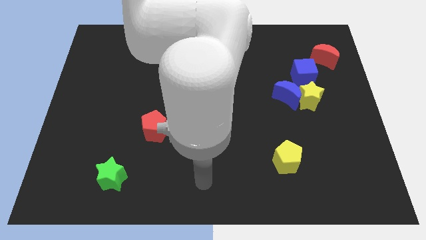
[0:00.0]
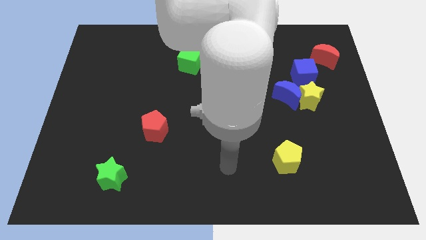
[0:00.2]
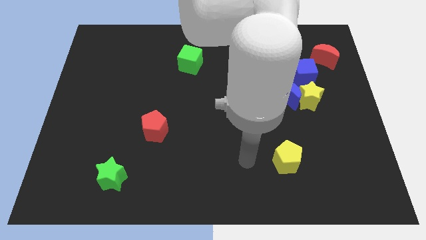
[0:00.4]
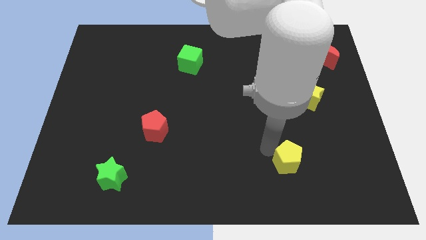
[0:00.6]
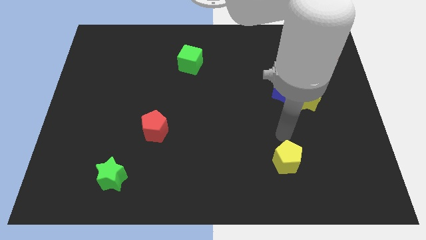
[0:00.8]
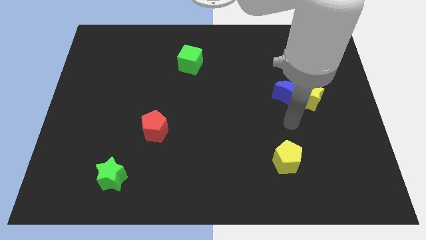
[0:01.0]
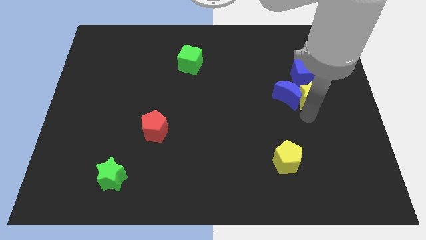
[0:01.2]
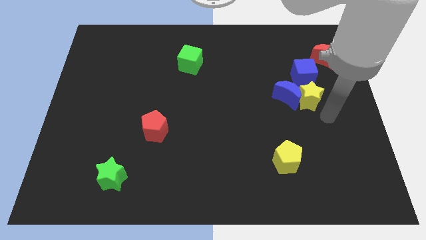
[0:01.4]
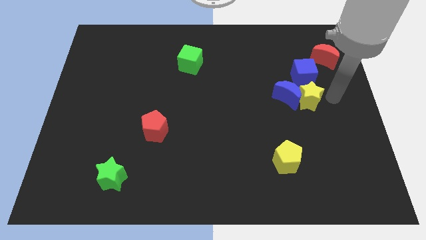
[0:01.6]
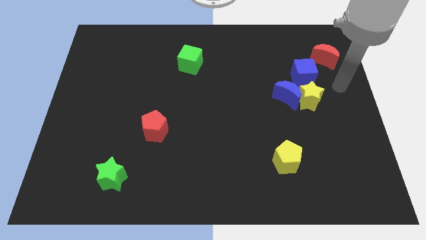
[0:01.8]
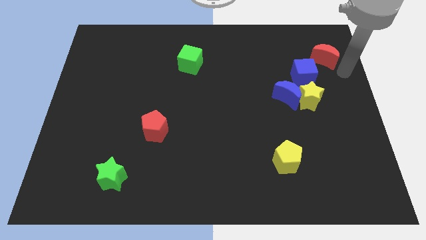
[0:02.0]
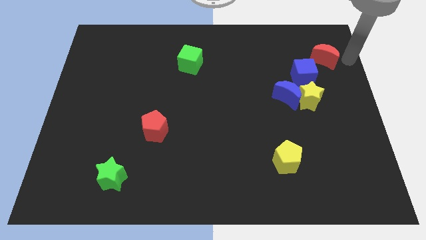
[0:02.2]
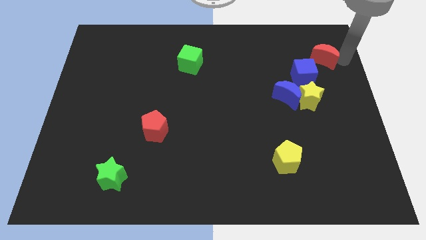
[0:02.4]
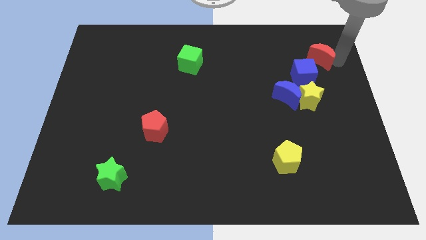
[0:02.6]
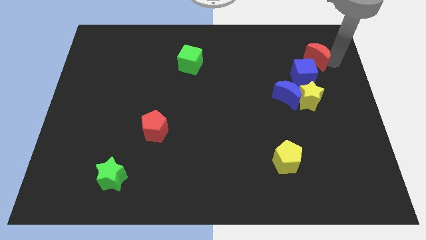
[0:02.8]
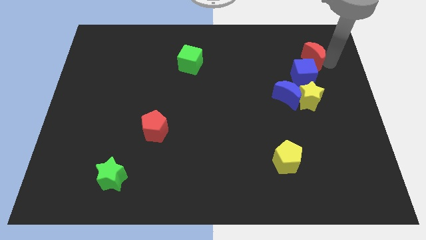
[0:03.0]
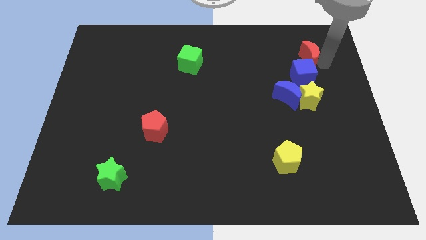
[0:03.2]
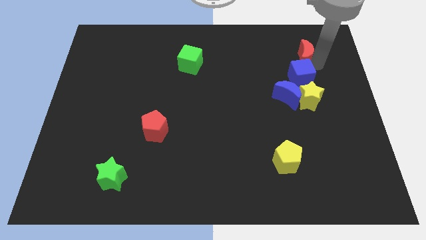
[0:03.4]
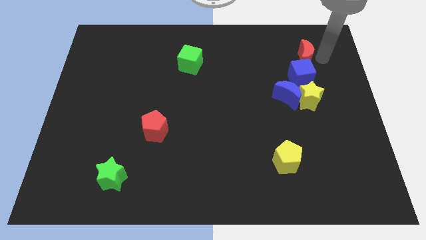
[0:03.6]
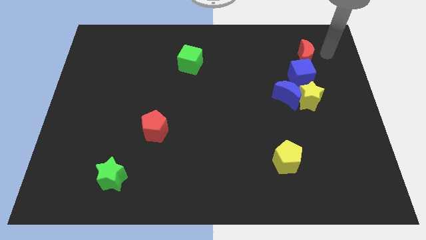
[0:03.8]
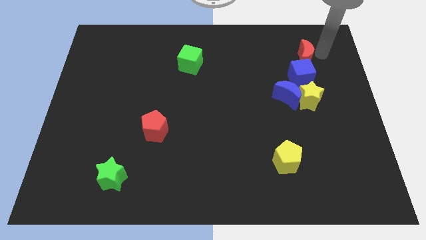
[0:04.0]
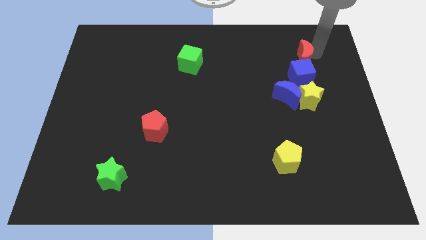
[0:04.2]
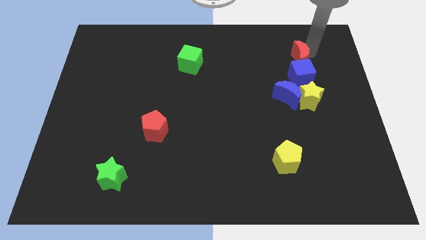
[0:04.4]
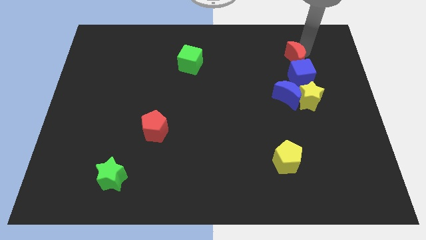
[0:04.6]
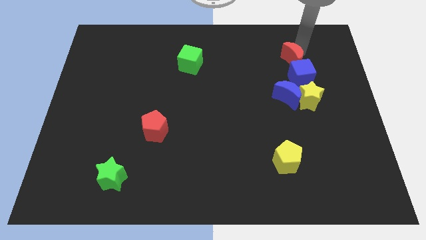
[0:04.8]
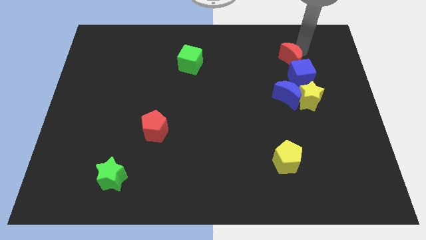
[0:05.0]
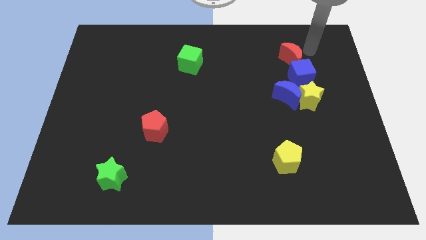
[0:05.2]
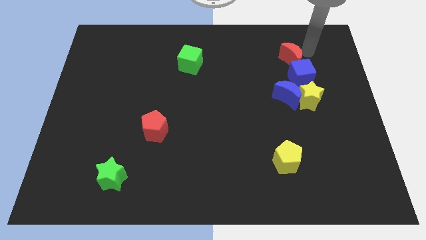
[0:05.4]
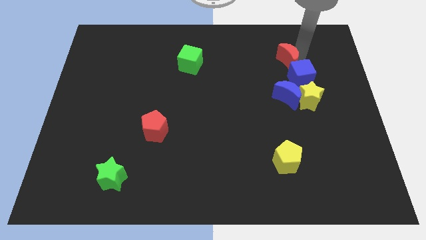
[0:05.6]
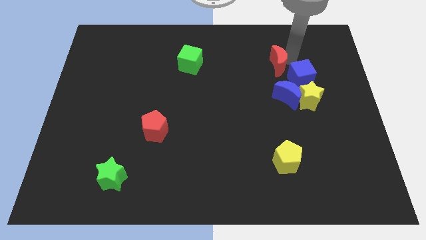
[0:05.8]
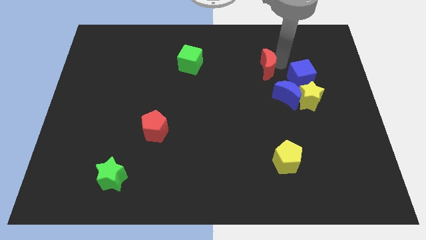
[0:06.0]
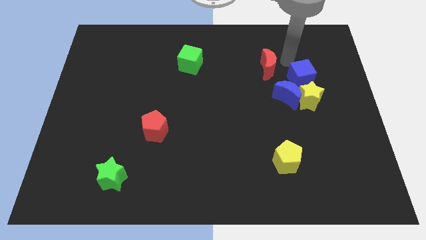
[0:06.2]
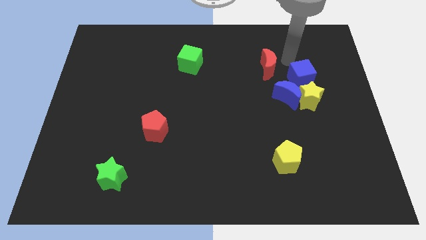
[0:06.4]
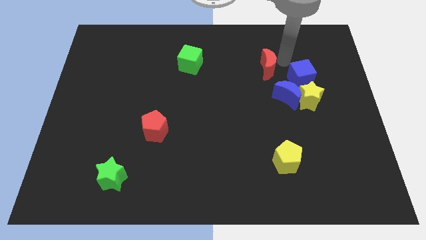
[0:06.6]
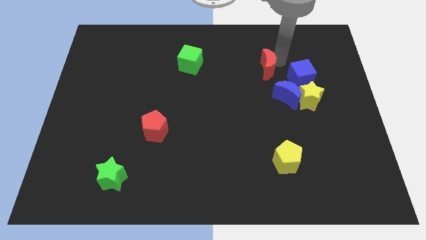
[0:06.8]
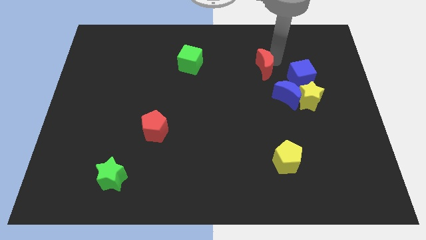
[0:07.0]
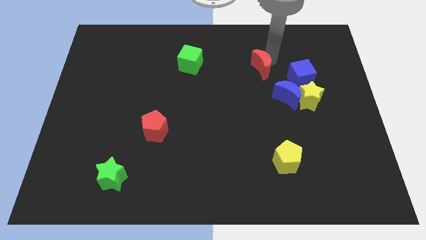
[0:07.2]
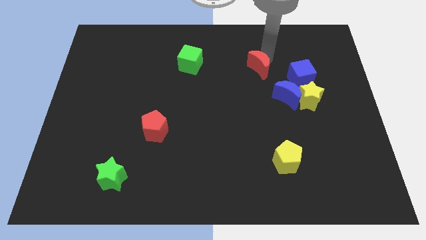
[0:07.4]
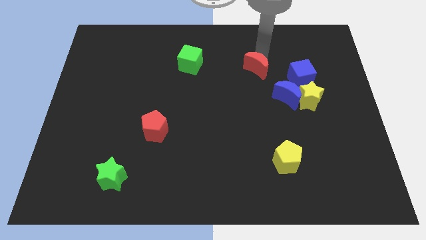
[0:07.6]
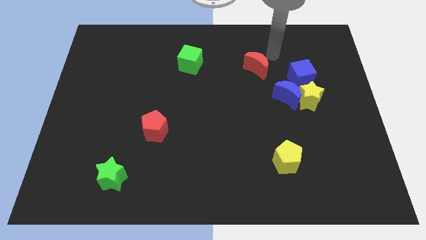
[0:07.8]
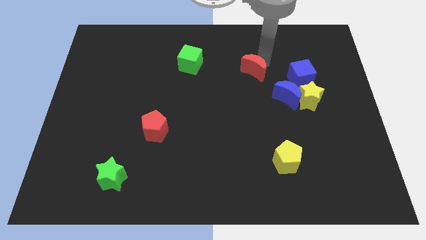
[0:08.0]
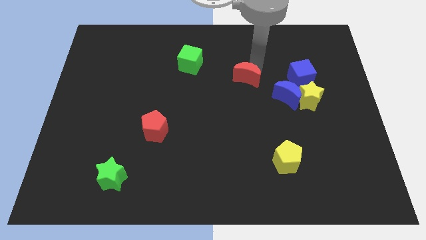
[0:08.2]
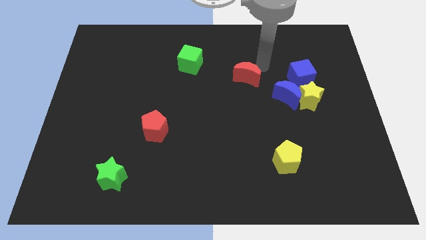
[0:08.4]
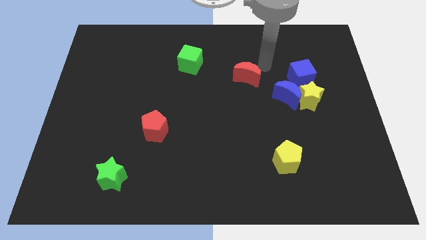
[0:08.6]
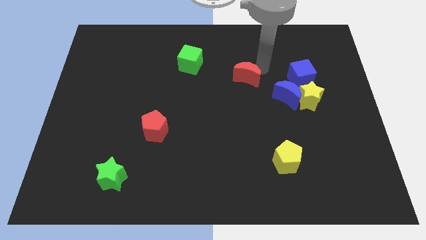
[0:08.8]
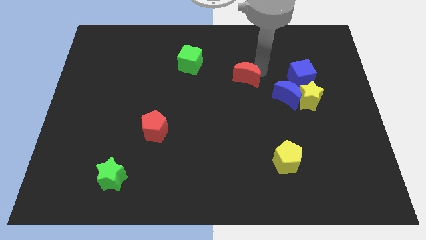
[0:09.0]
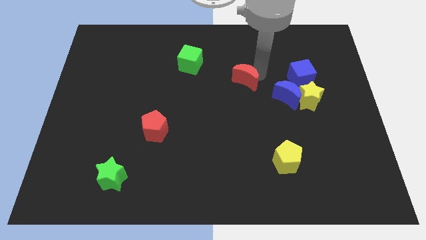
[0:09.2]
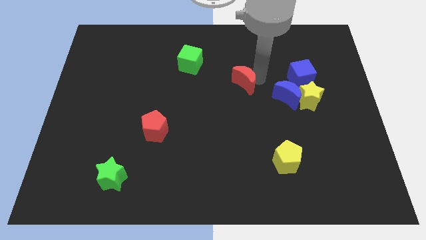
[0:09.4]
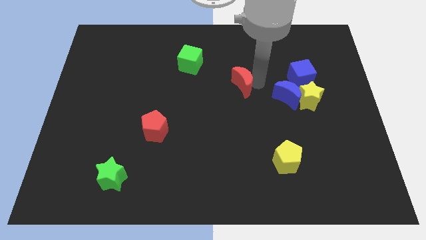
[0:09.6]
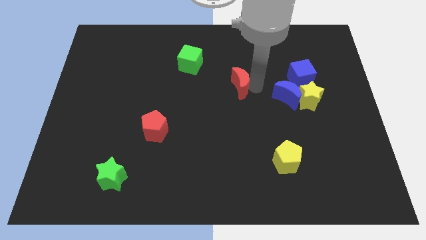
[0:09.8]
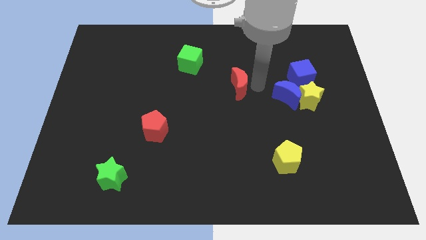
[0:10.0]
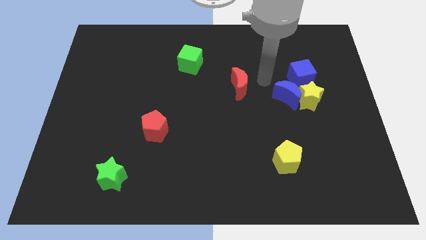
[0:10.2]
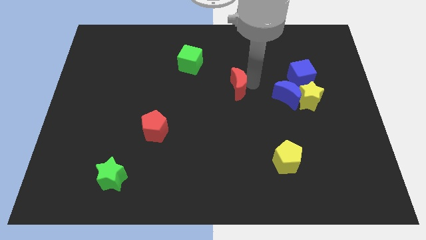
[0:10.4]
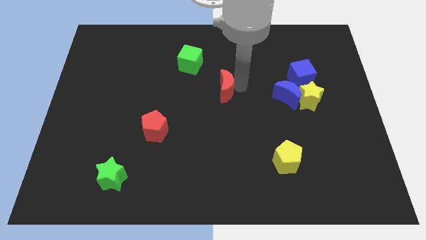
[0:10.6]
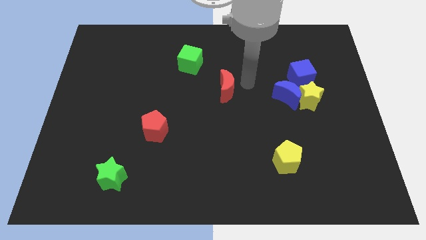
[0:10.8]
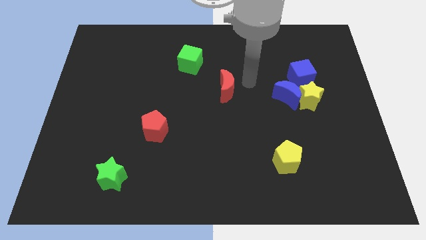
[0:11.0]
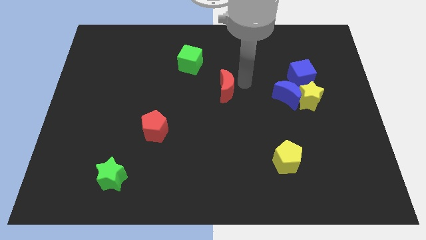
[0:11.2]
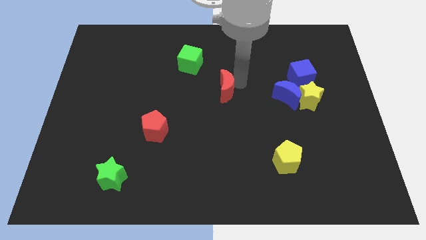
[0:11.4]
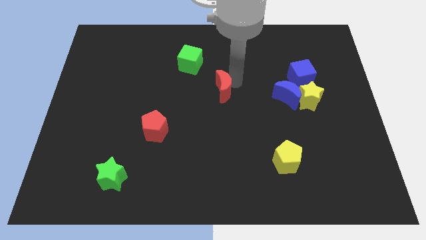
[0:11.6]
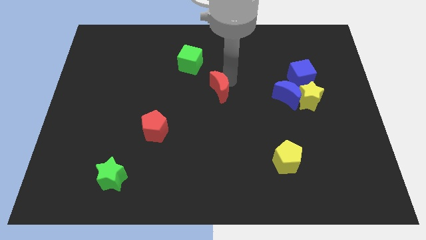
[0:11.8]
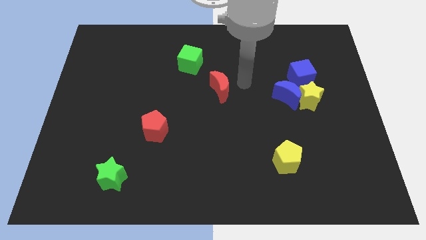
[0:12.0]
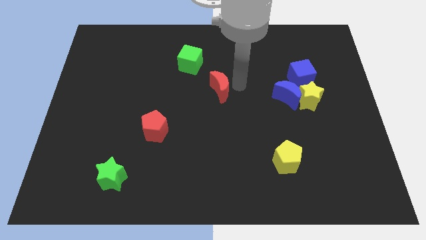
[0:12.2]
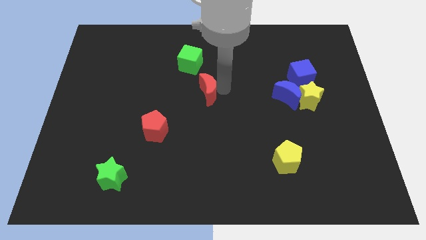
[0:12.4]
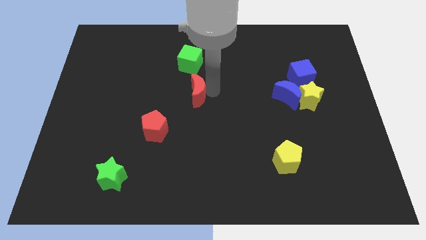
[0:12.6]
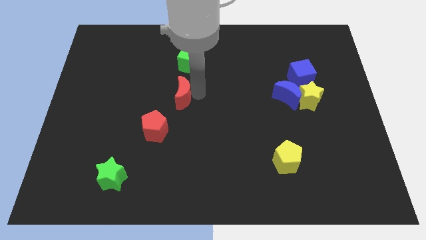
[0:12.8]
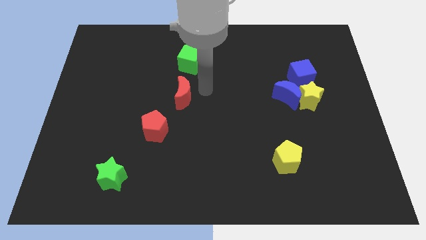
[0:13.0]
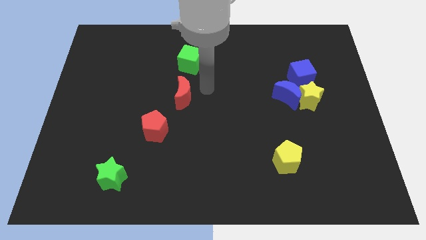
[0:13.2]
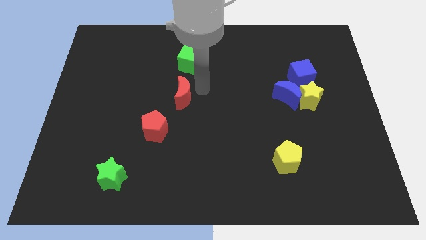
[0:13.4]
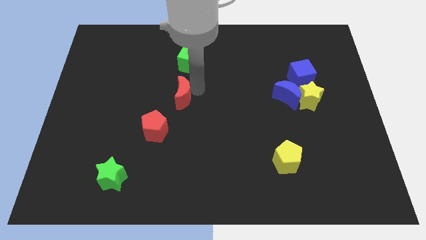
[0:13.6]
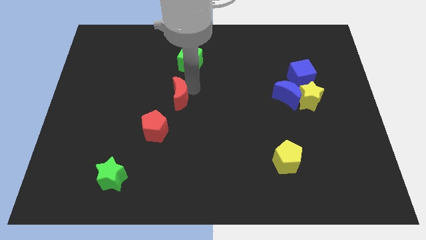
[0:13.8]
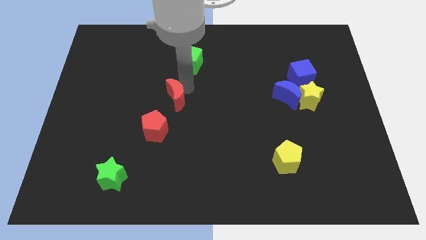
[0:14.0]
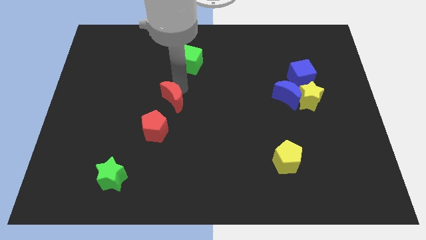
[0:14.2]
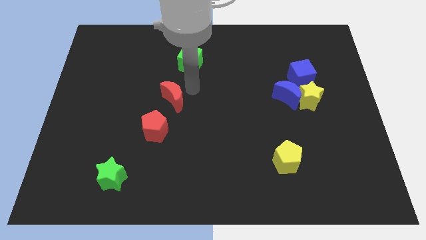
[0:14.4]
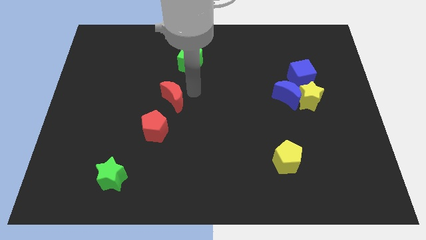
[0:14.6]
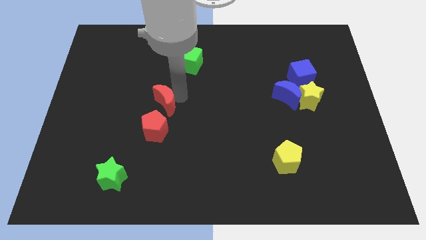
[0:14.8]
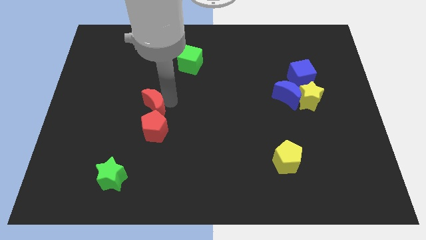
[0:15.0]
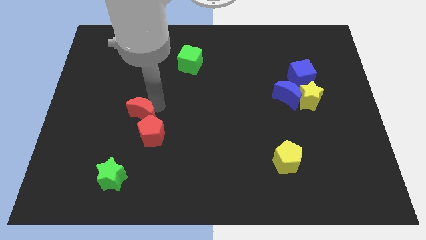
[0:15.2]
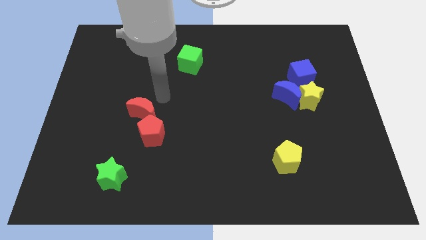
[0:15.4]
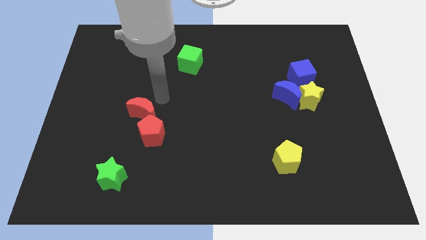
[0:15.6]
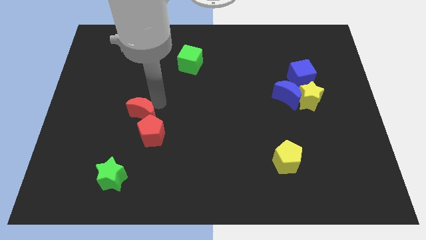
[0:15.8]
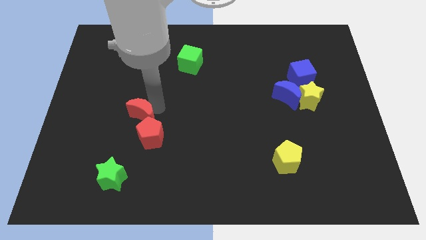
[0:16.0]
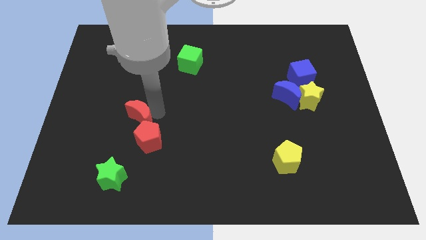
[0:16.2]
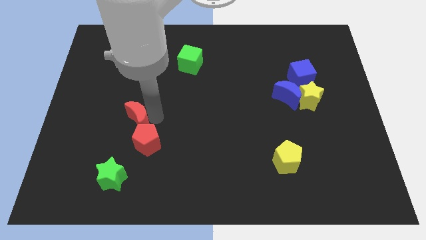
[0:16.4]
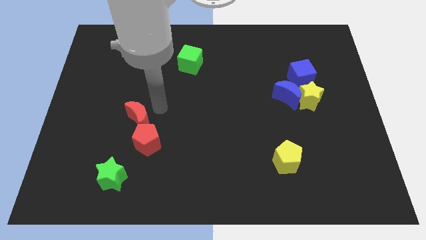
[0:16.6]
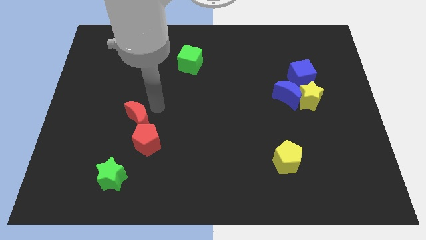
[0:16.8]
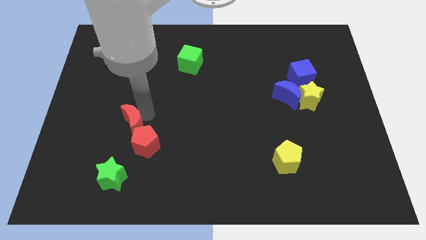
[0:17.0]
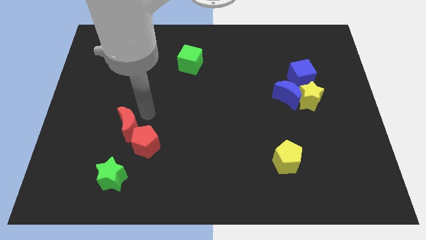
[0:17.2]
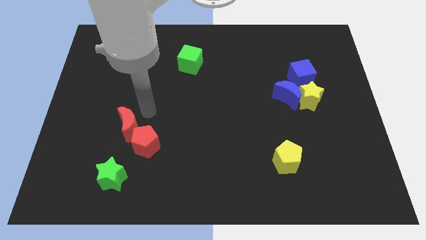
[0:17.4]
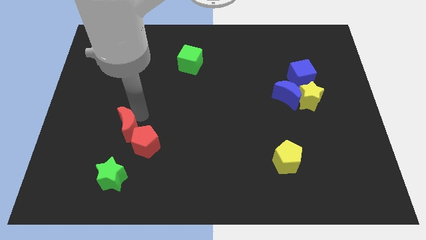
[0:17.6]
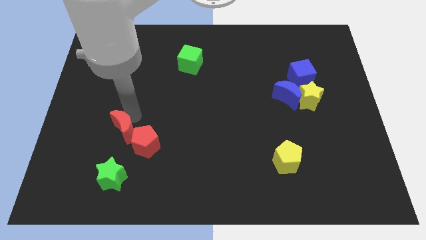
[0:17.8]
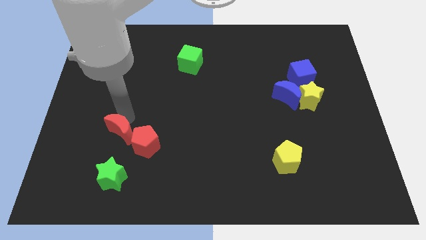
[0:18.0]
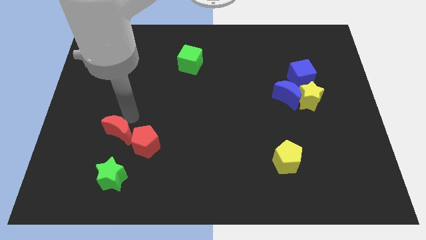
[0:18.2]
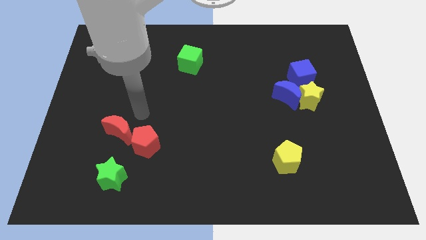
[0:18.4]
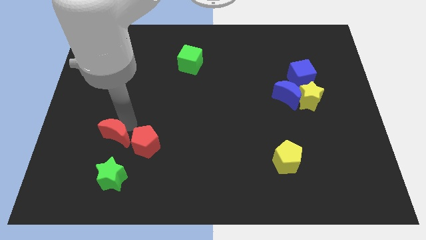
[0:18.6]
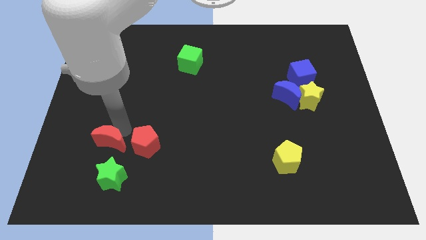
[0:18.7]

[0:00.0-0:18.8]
put the red moon diagonally up and to the left of the green star
